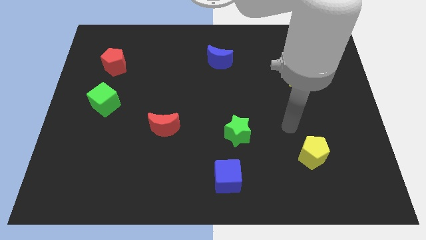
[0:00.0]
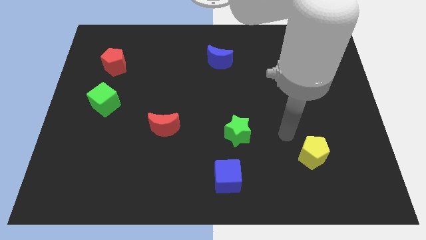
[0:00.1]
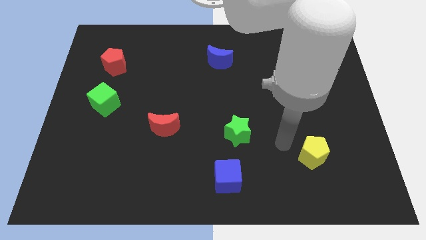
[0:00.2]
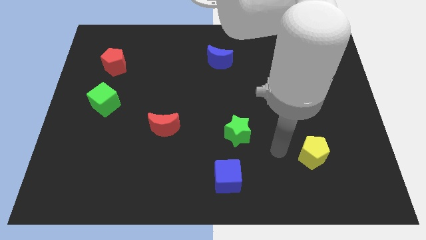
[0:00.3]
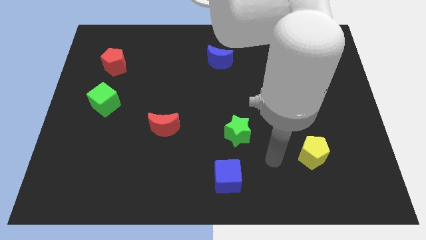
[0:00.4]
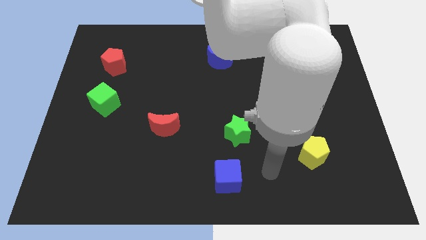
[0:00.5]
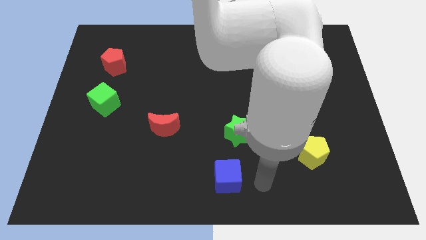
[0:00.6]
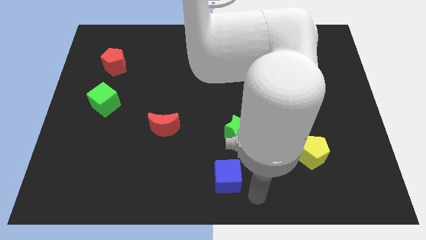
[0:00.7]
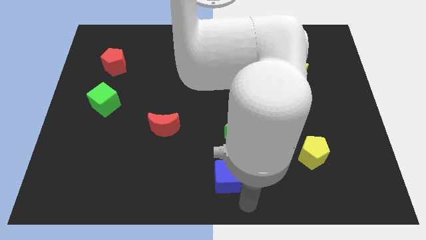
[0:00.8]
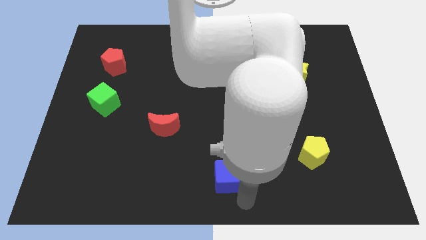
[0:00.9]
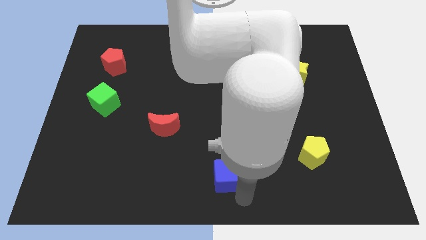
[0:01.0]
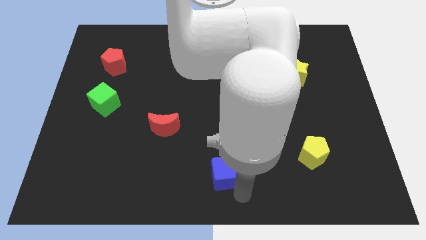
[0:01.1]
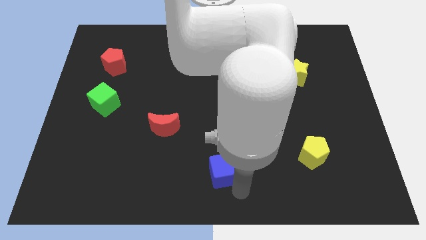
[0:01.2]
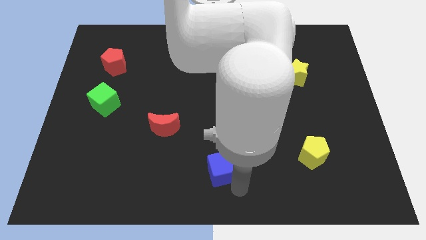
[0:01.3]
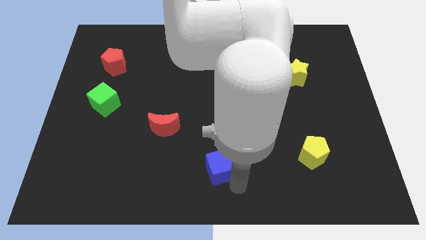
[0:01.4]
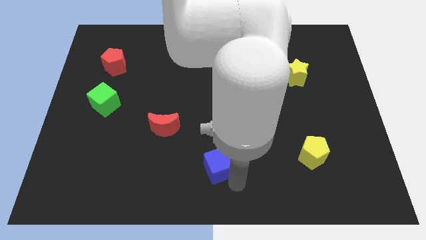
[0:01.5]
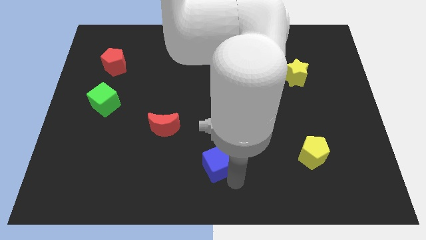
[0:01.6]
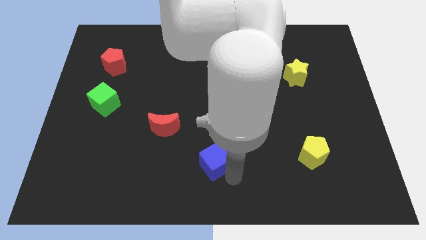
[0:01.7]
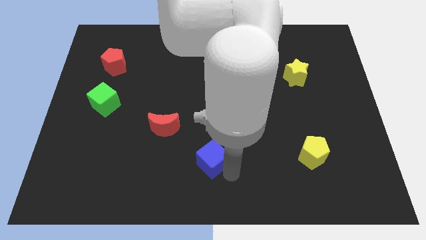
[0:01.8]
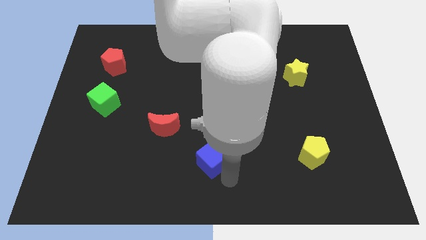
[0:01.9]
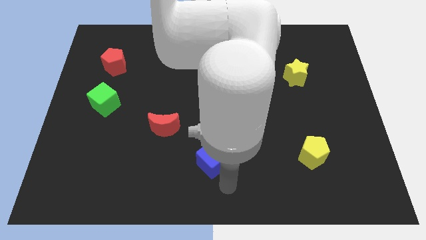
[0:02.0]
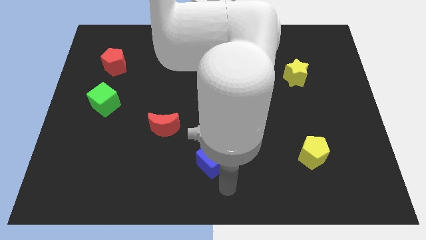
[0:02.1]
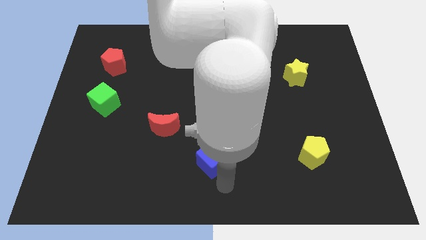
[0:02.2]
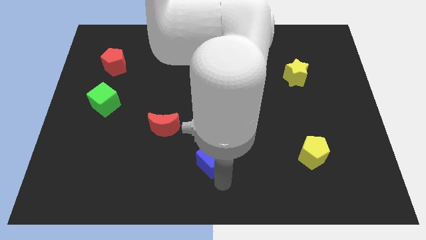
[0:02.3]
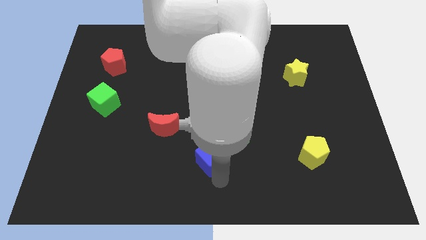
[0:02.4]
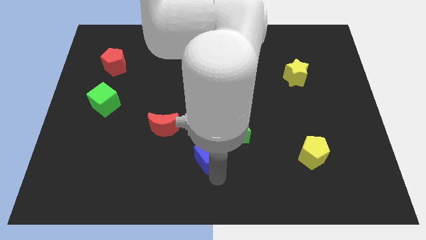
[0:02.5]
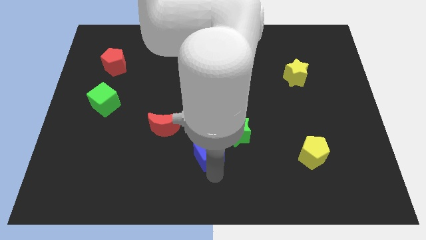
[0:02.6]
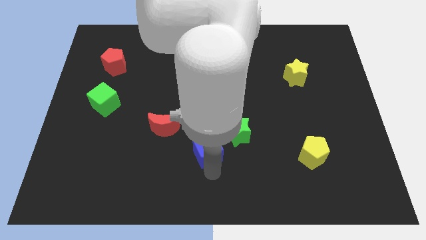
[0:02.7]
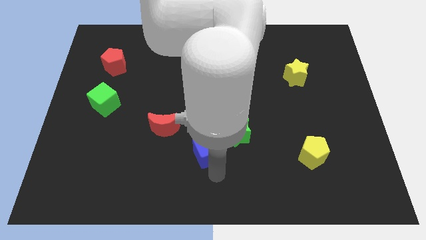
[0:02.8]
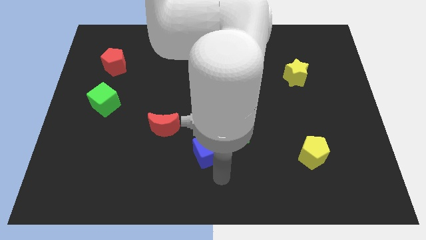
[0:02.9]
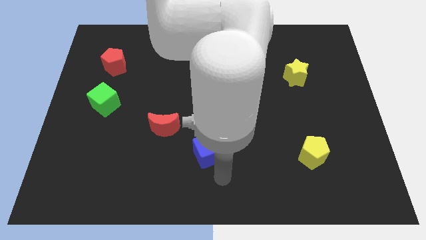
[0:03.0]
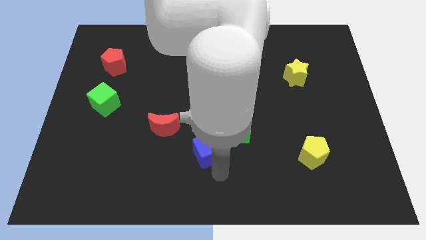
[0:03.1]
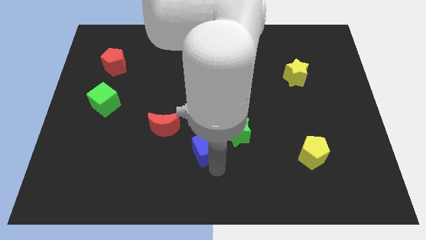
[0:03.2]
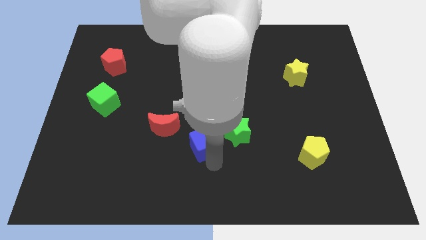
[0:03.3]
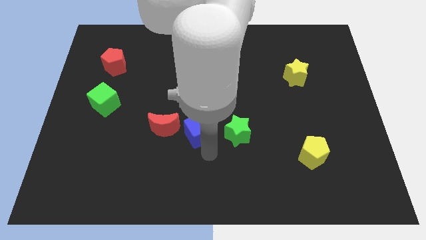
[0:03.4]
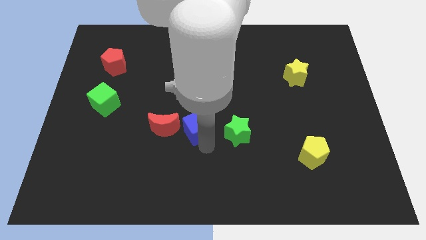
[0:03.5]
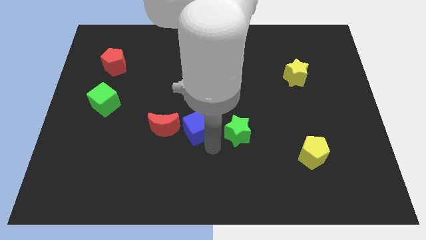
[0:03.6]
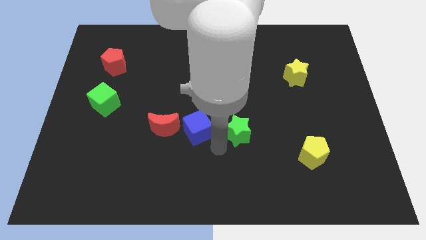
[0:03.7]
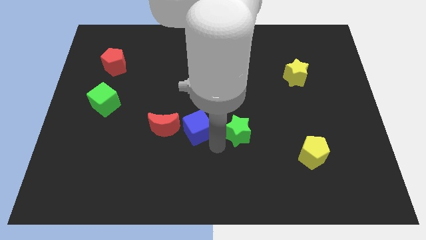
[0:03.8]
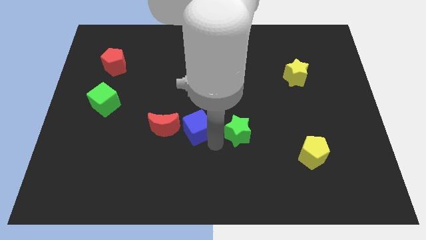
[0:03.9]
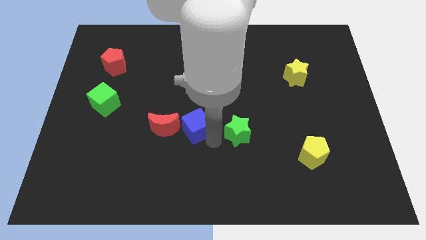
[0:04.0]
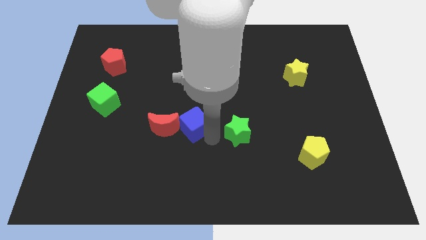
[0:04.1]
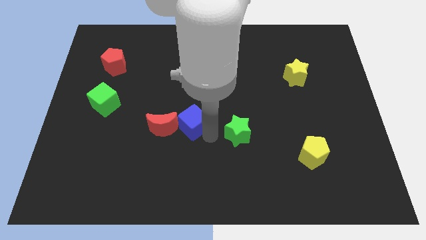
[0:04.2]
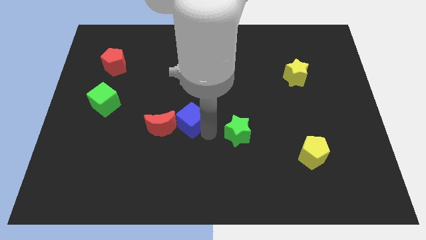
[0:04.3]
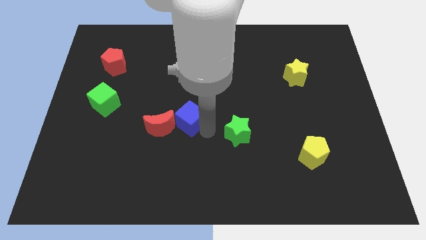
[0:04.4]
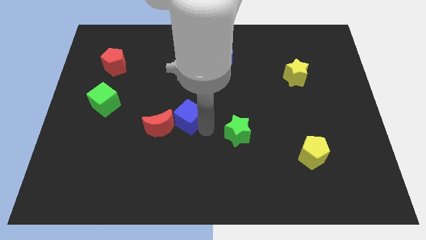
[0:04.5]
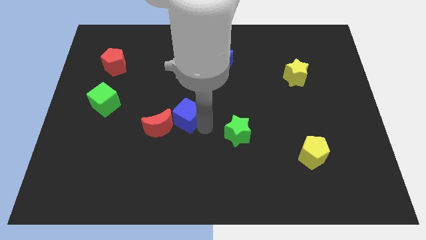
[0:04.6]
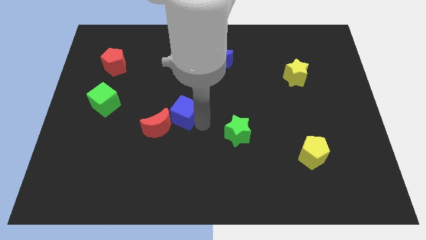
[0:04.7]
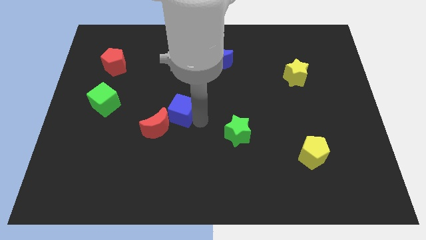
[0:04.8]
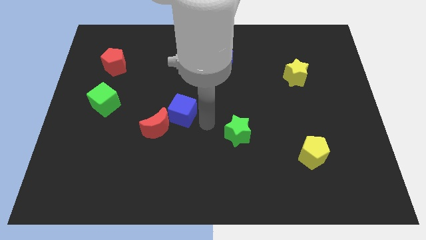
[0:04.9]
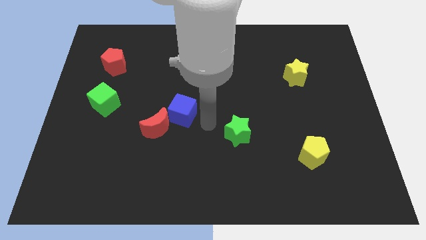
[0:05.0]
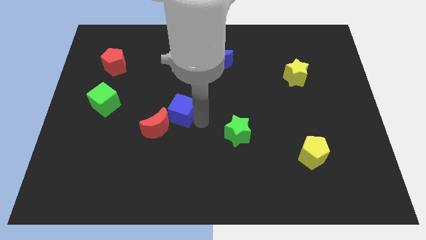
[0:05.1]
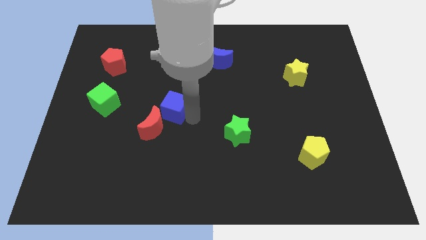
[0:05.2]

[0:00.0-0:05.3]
move the blue cube up and then left

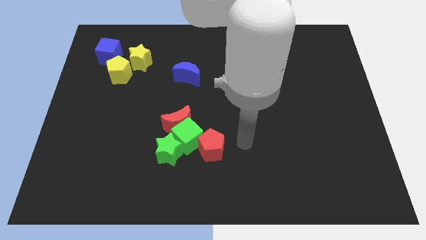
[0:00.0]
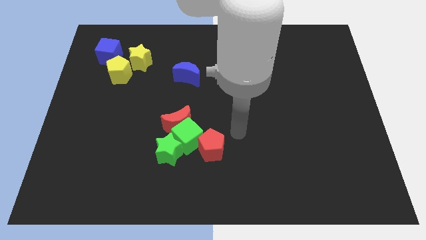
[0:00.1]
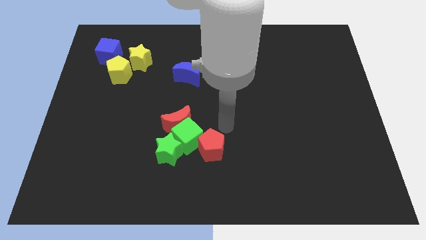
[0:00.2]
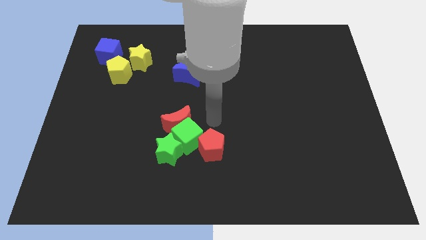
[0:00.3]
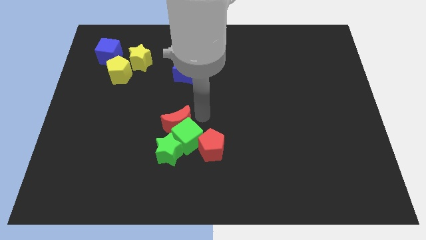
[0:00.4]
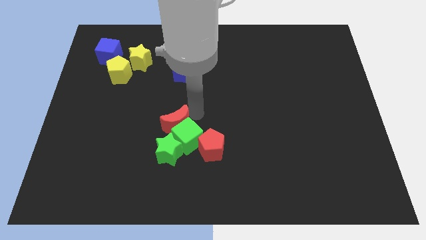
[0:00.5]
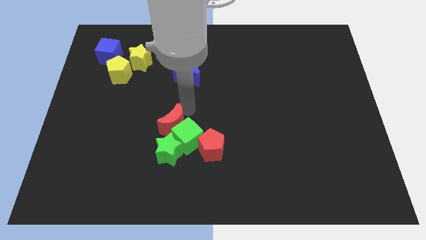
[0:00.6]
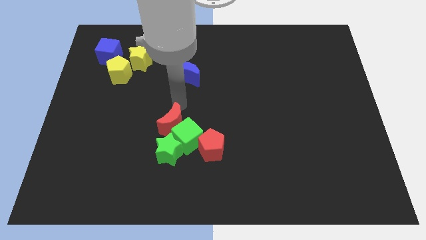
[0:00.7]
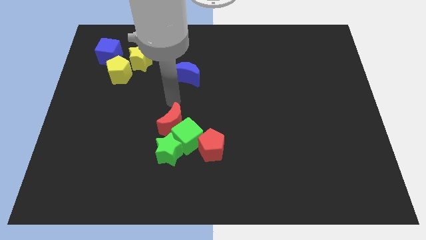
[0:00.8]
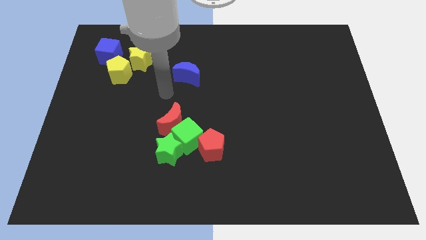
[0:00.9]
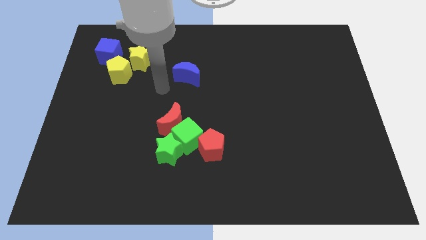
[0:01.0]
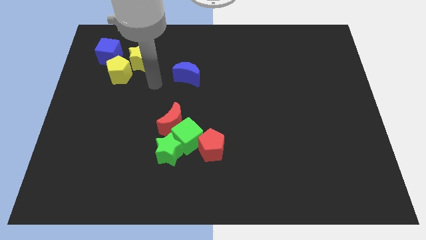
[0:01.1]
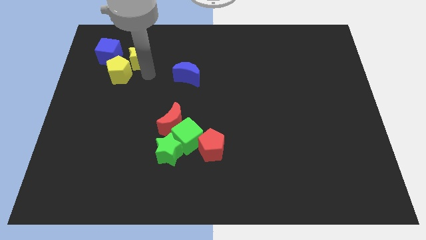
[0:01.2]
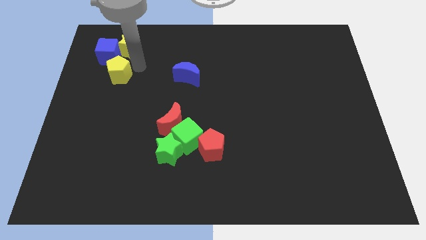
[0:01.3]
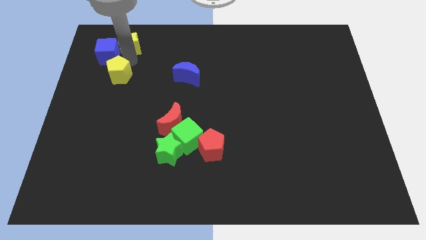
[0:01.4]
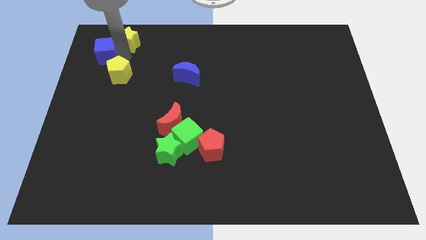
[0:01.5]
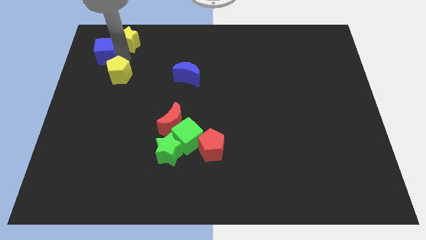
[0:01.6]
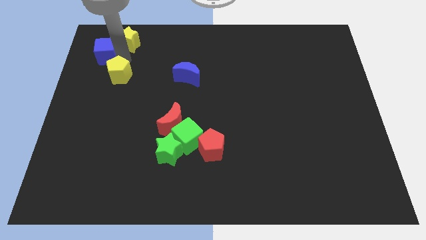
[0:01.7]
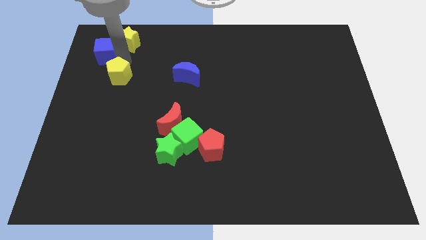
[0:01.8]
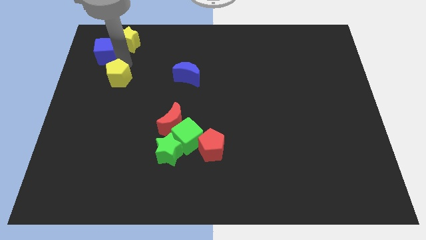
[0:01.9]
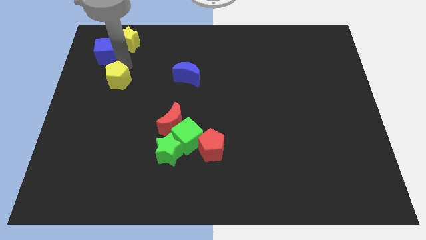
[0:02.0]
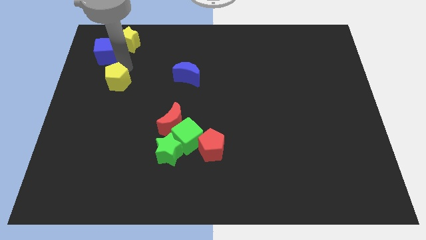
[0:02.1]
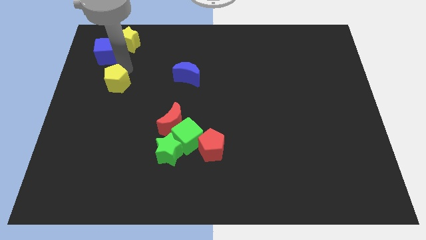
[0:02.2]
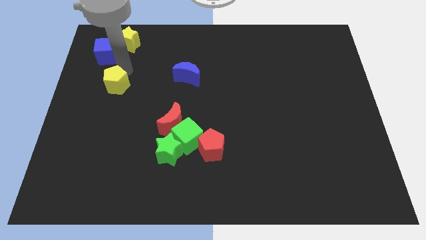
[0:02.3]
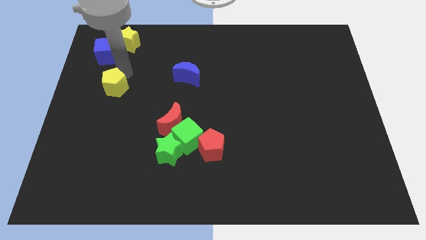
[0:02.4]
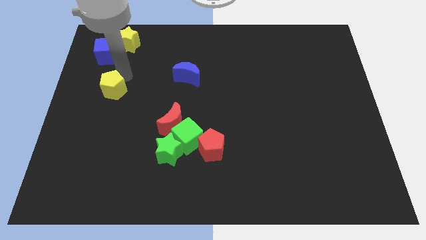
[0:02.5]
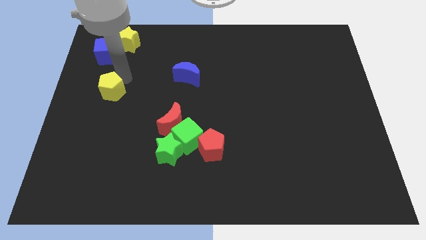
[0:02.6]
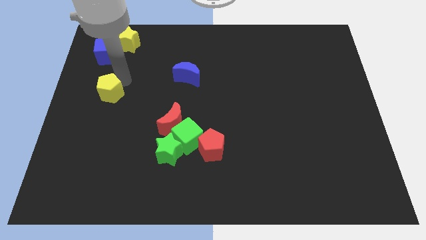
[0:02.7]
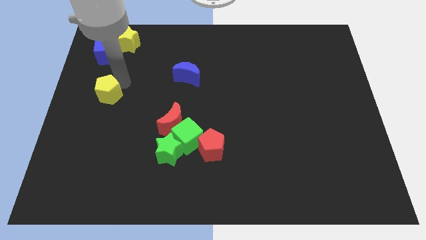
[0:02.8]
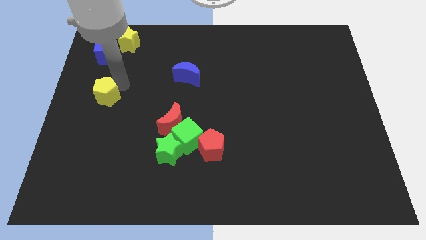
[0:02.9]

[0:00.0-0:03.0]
push the yellow pentagon a bit downwards
